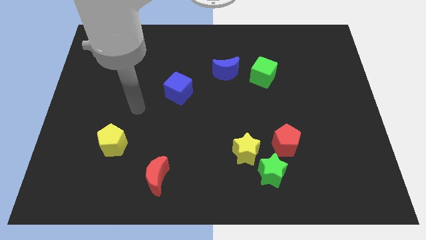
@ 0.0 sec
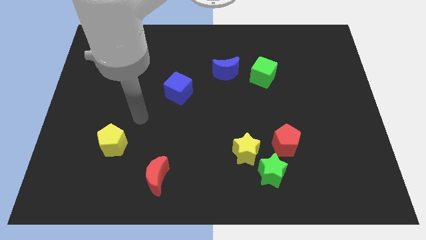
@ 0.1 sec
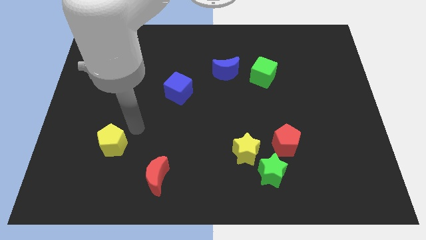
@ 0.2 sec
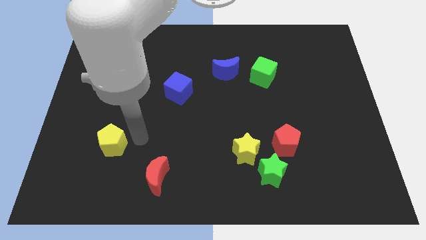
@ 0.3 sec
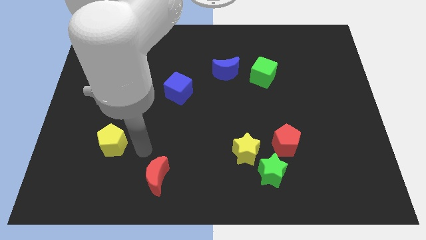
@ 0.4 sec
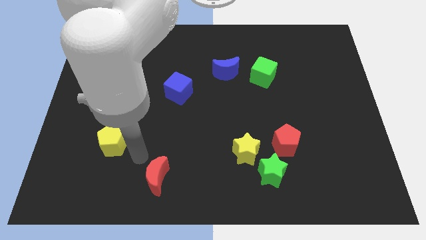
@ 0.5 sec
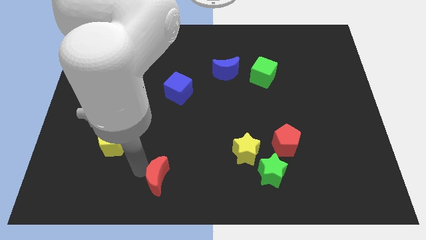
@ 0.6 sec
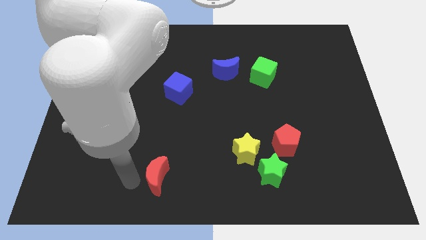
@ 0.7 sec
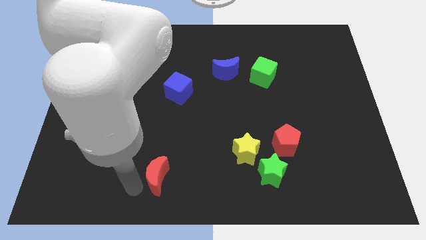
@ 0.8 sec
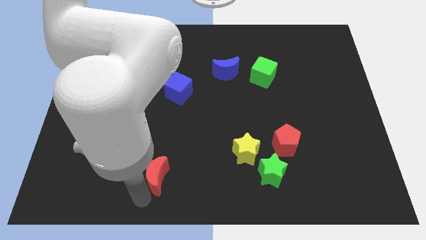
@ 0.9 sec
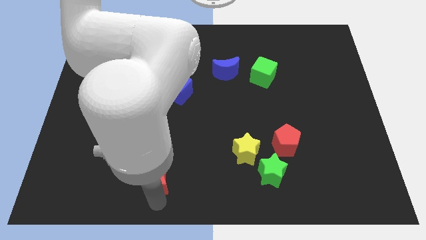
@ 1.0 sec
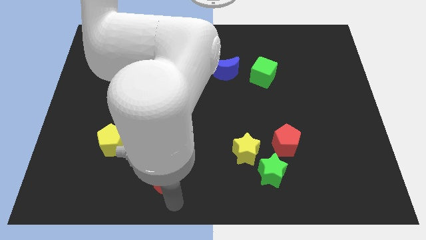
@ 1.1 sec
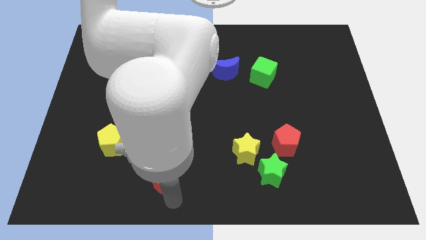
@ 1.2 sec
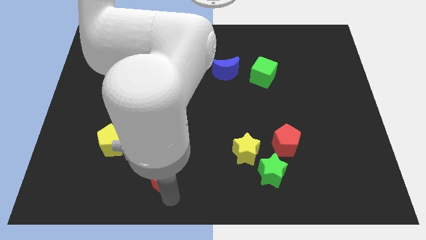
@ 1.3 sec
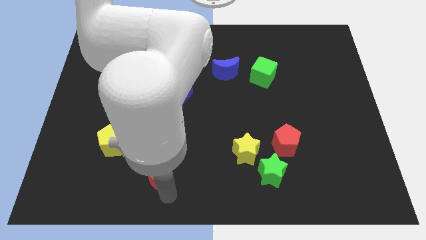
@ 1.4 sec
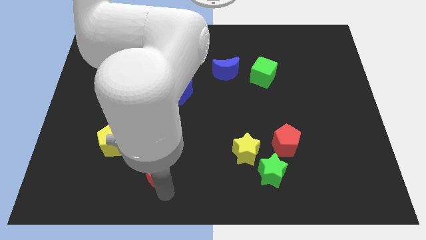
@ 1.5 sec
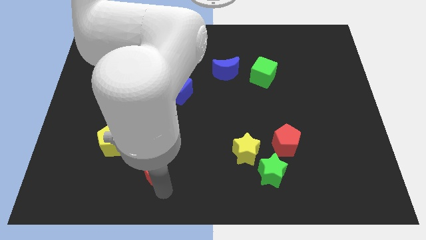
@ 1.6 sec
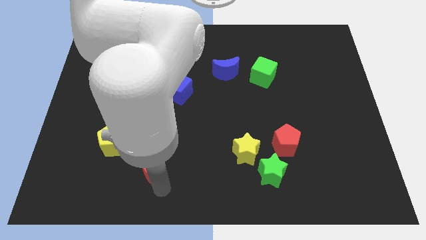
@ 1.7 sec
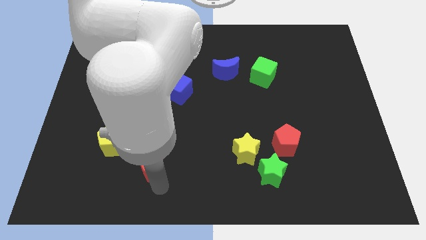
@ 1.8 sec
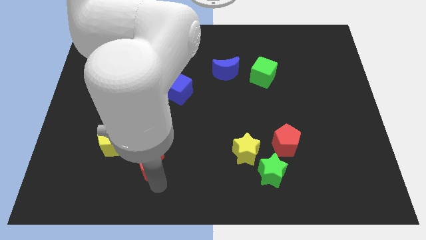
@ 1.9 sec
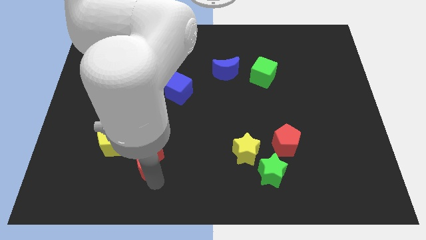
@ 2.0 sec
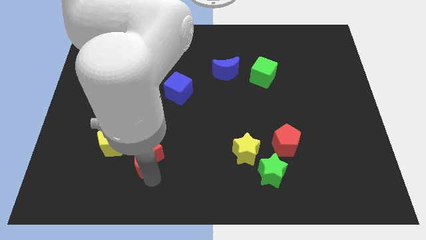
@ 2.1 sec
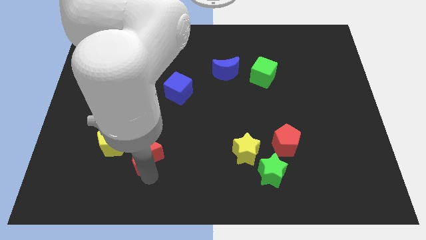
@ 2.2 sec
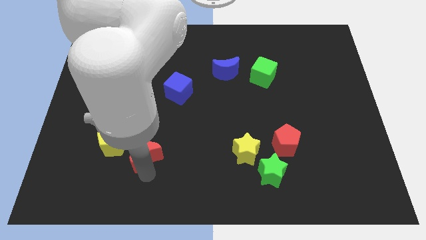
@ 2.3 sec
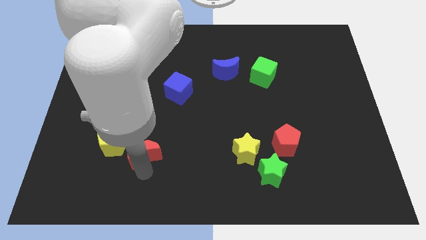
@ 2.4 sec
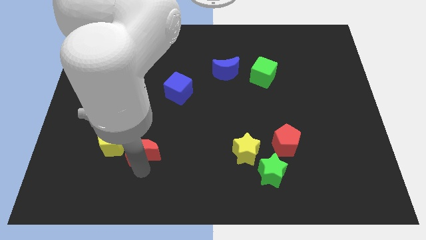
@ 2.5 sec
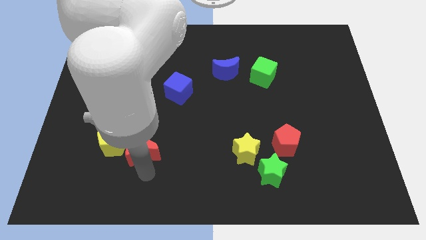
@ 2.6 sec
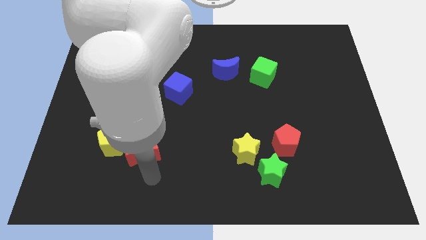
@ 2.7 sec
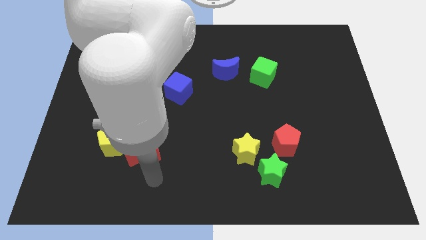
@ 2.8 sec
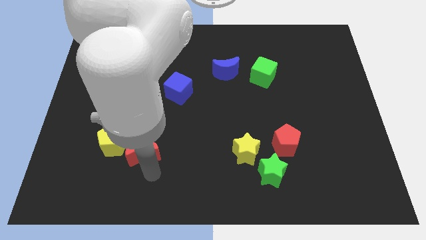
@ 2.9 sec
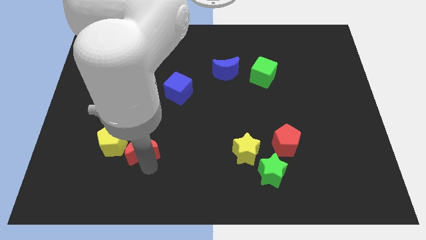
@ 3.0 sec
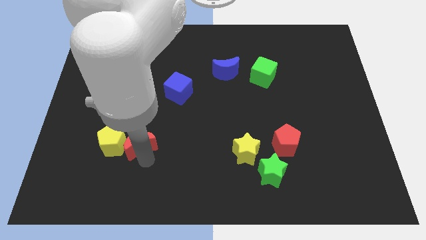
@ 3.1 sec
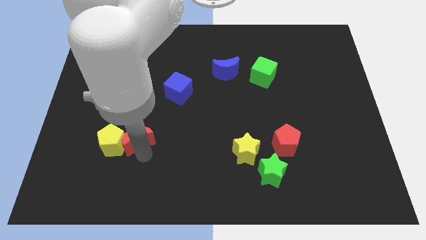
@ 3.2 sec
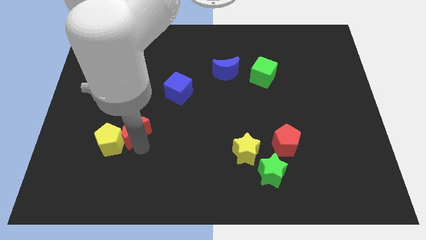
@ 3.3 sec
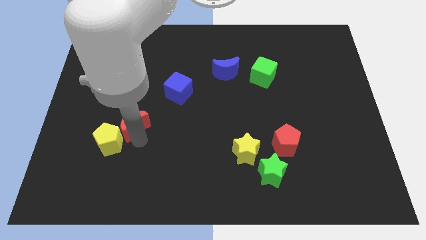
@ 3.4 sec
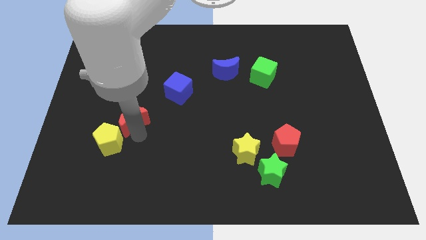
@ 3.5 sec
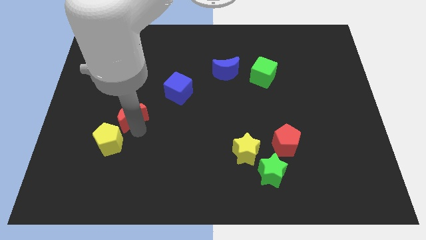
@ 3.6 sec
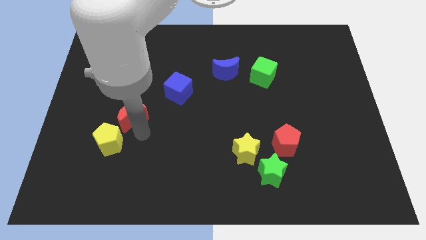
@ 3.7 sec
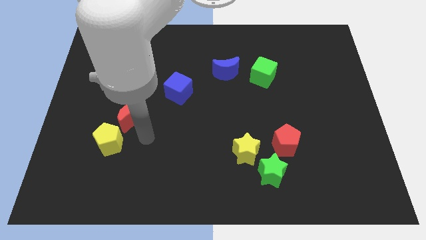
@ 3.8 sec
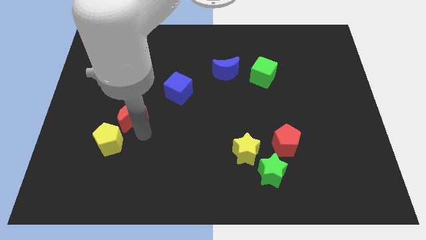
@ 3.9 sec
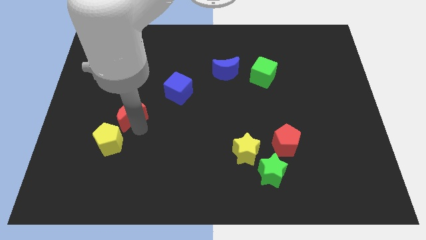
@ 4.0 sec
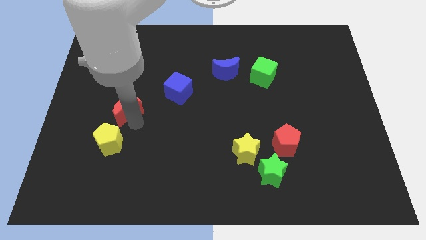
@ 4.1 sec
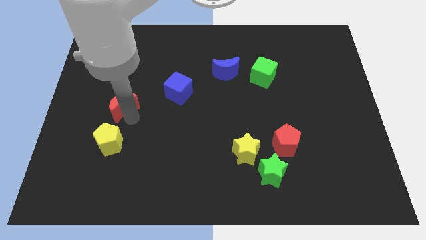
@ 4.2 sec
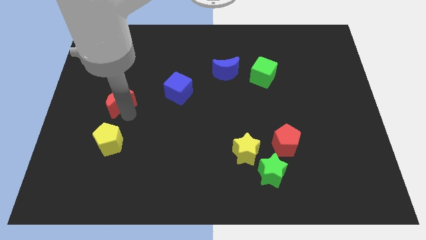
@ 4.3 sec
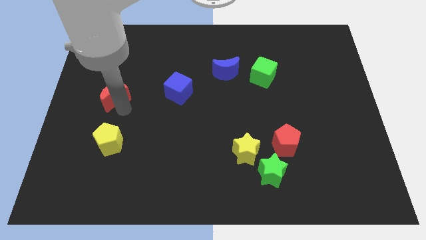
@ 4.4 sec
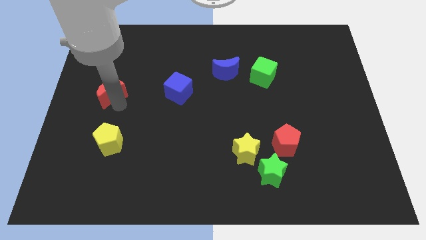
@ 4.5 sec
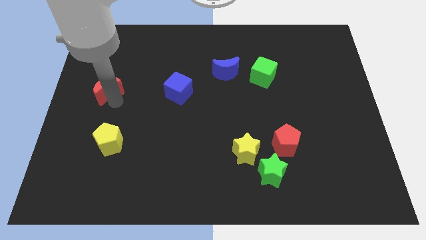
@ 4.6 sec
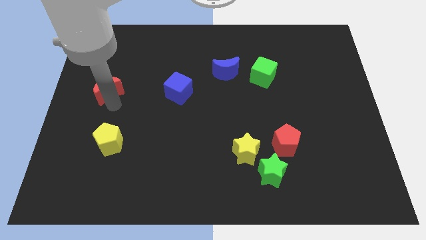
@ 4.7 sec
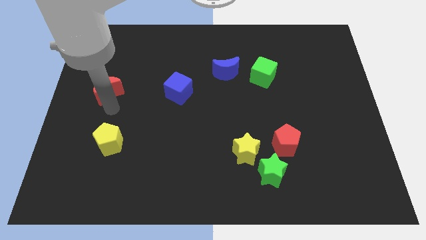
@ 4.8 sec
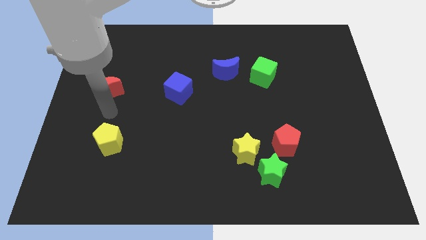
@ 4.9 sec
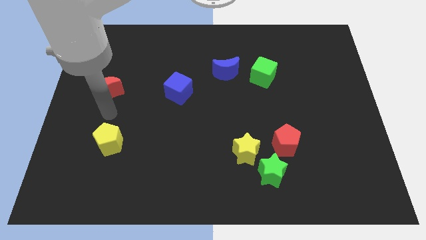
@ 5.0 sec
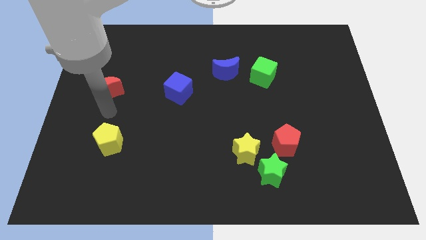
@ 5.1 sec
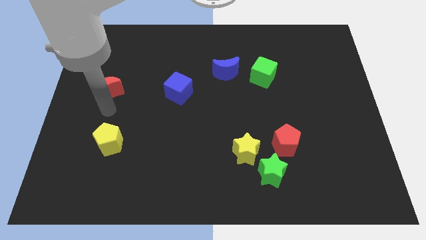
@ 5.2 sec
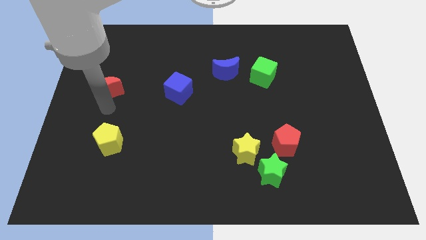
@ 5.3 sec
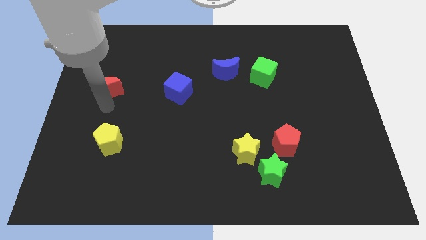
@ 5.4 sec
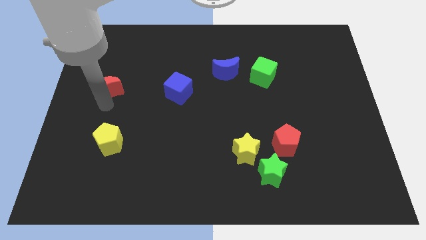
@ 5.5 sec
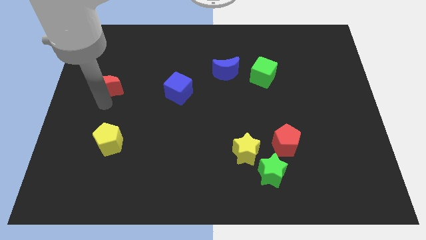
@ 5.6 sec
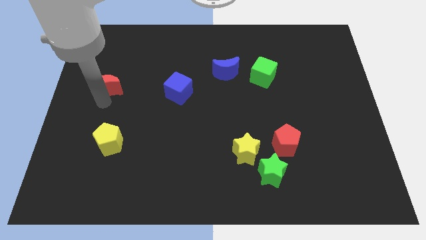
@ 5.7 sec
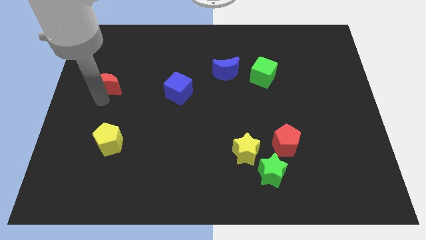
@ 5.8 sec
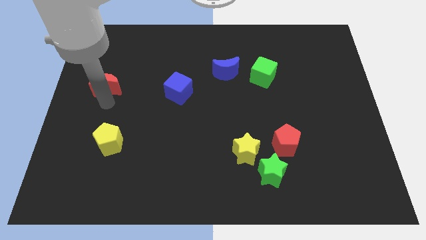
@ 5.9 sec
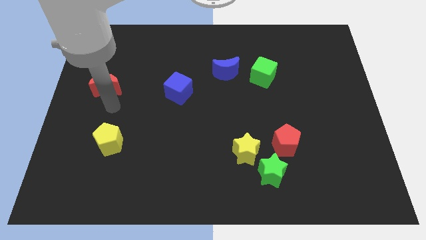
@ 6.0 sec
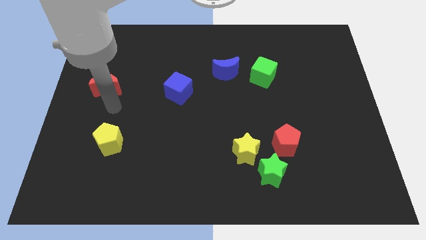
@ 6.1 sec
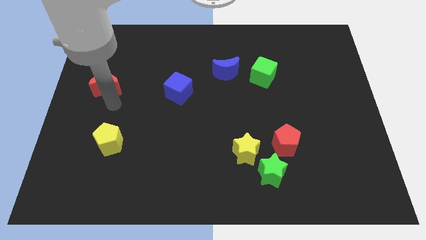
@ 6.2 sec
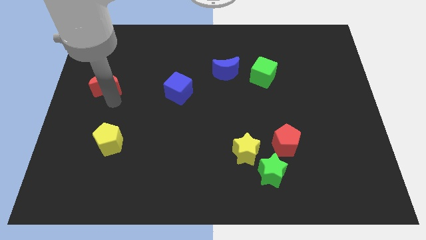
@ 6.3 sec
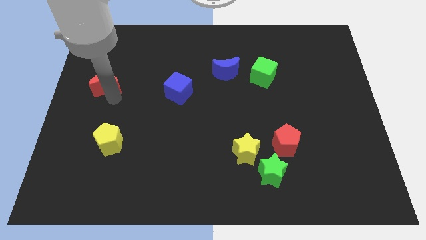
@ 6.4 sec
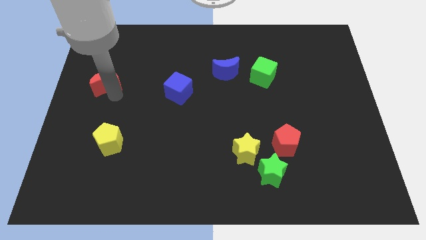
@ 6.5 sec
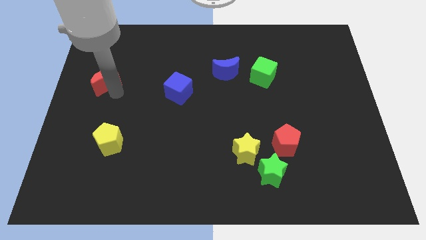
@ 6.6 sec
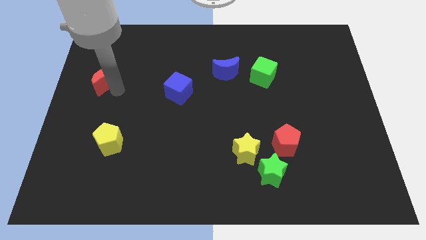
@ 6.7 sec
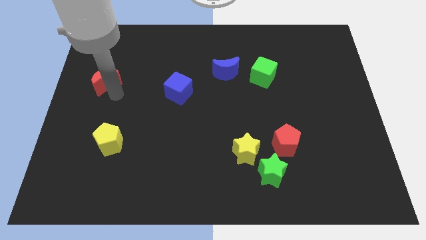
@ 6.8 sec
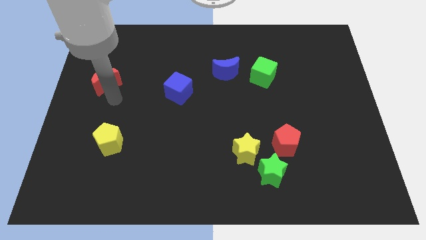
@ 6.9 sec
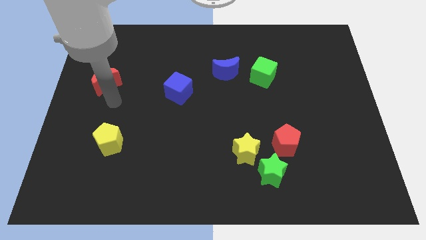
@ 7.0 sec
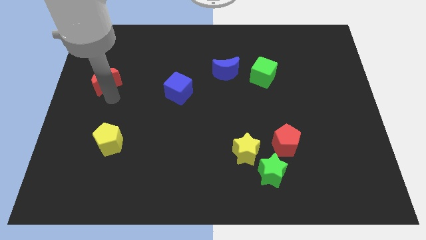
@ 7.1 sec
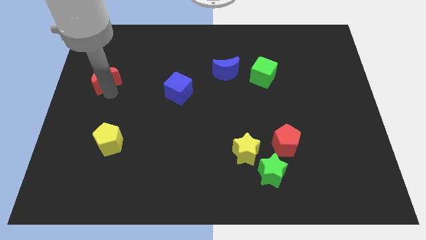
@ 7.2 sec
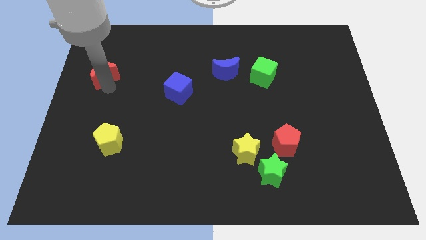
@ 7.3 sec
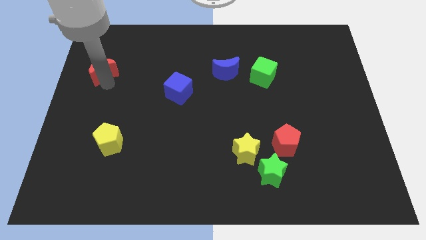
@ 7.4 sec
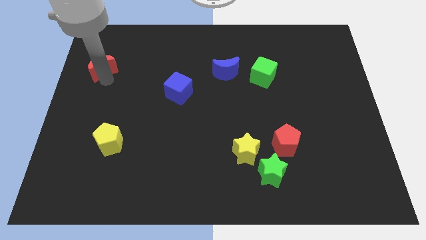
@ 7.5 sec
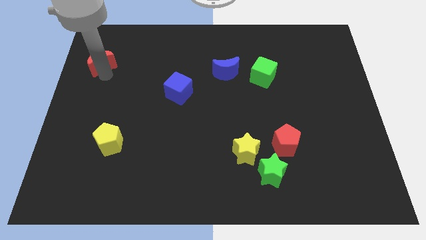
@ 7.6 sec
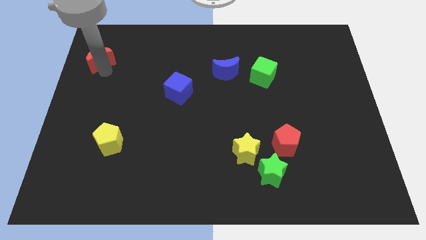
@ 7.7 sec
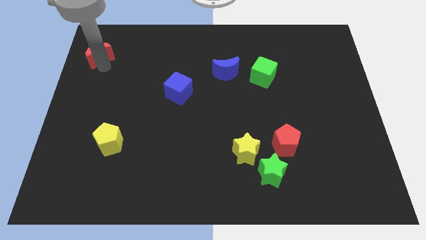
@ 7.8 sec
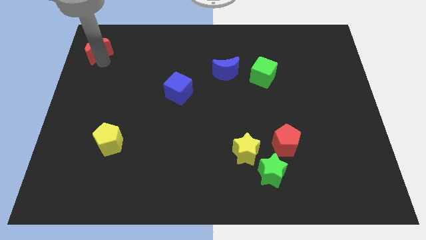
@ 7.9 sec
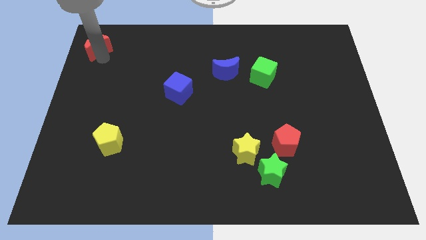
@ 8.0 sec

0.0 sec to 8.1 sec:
move the red moon to the top left corner
